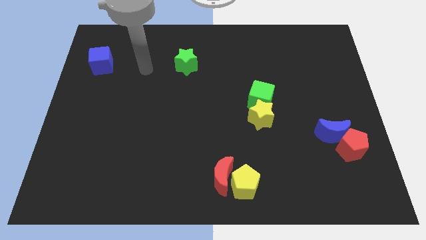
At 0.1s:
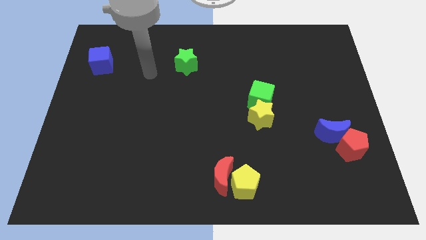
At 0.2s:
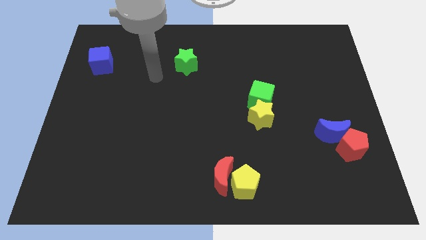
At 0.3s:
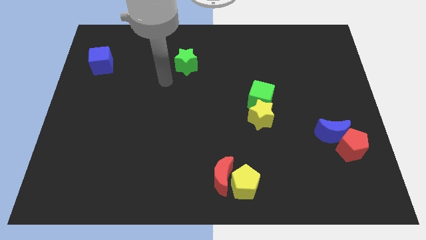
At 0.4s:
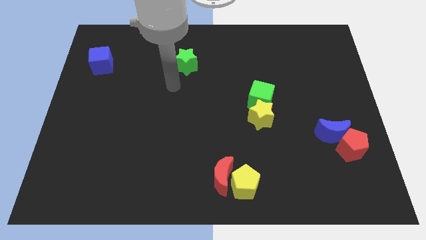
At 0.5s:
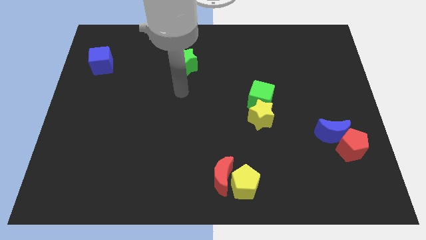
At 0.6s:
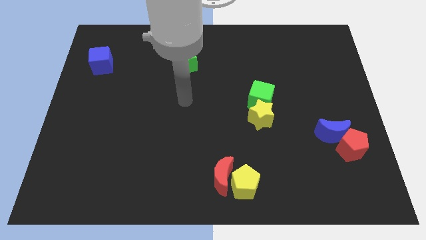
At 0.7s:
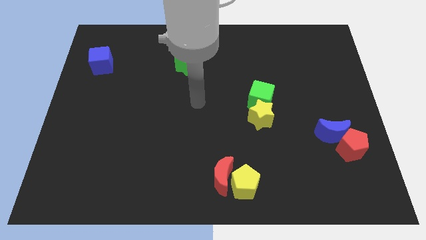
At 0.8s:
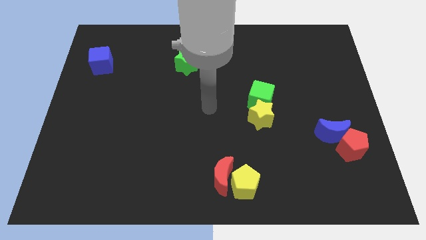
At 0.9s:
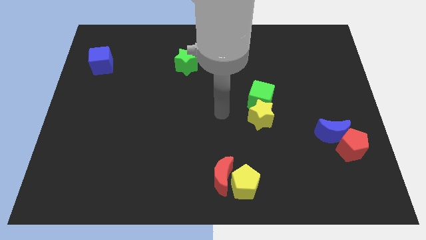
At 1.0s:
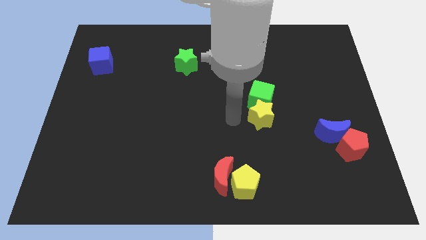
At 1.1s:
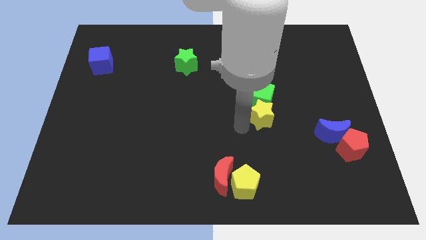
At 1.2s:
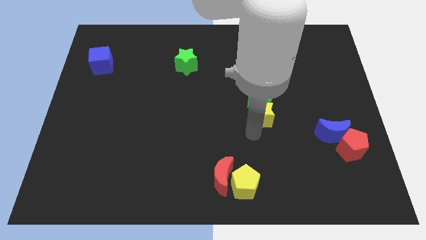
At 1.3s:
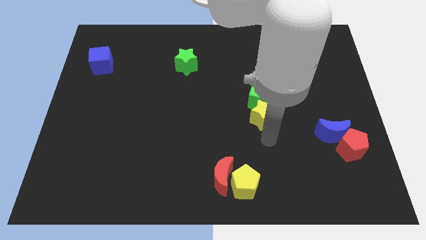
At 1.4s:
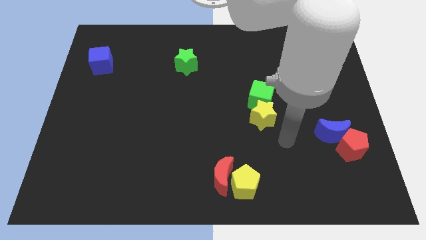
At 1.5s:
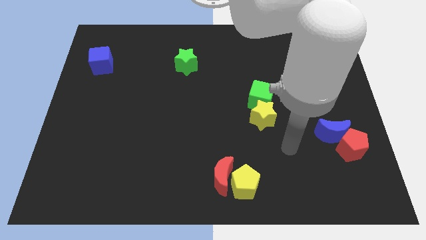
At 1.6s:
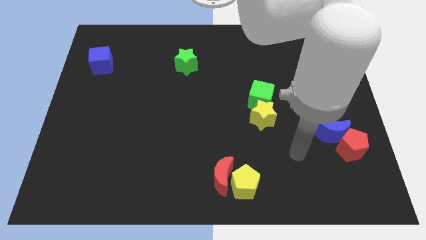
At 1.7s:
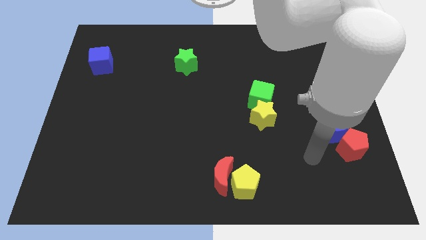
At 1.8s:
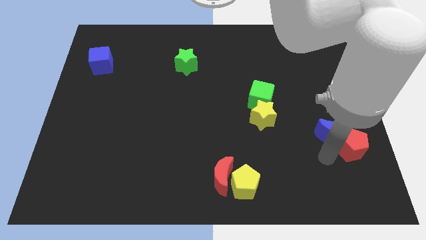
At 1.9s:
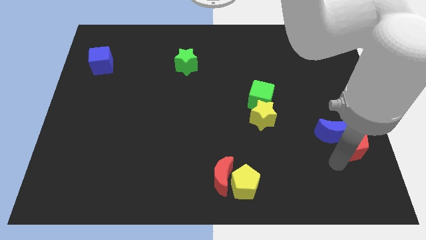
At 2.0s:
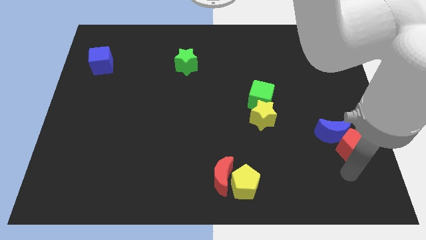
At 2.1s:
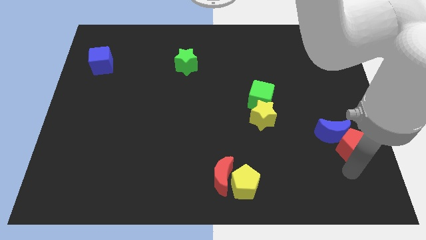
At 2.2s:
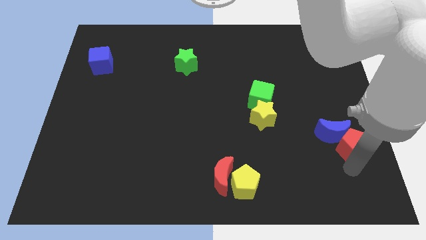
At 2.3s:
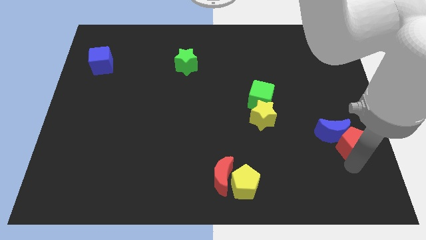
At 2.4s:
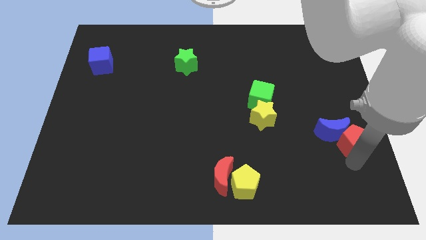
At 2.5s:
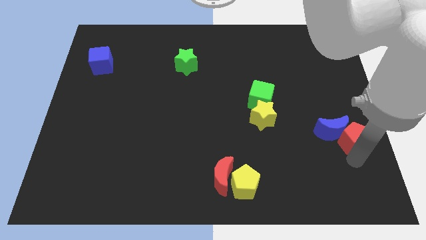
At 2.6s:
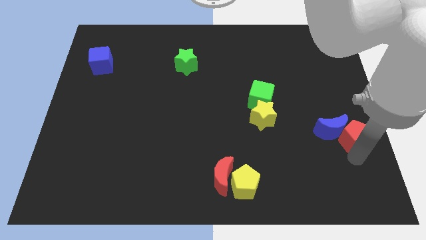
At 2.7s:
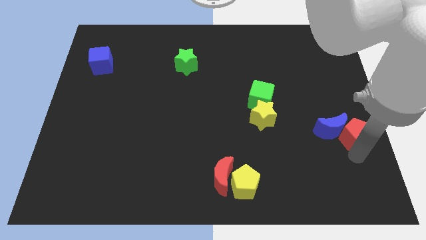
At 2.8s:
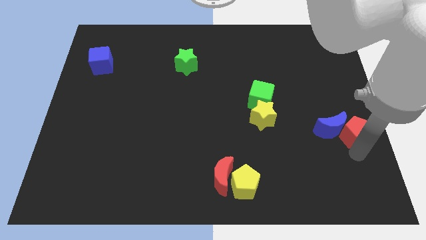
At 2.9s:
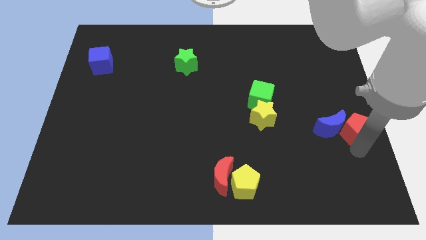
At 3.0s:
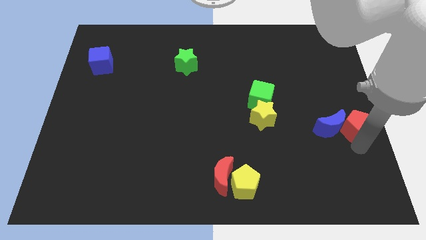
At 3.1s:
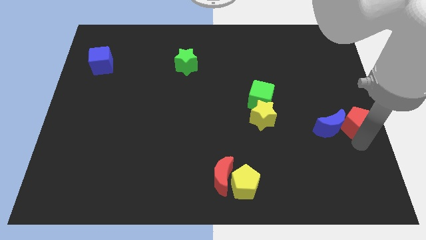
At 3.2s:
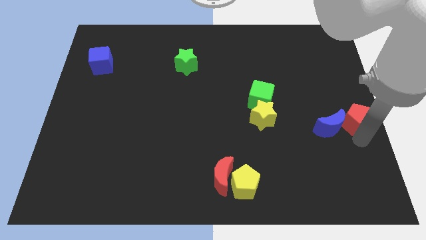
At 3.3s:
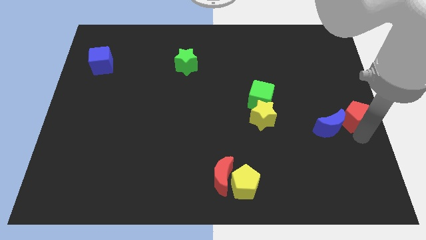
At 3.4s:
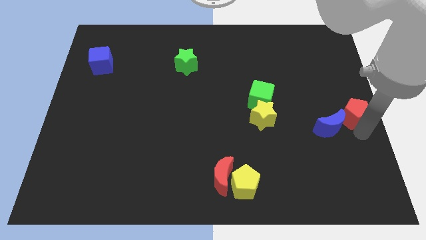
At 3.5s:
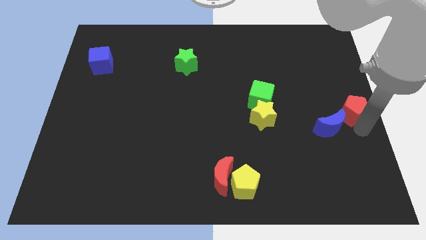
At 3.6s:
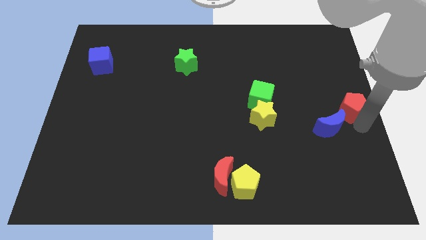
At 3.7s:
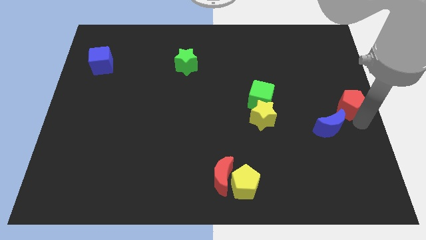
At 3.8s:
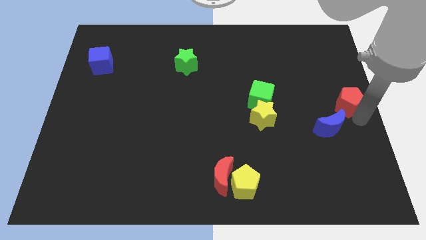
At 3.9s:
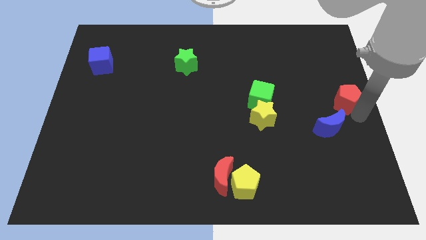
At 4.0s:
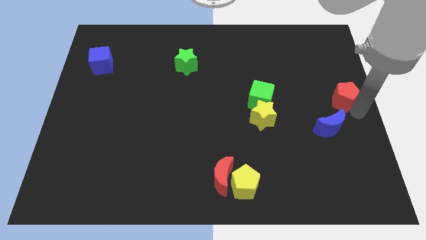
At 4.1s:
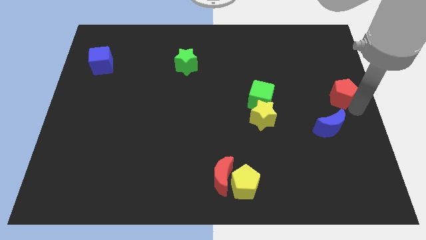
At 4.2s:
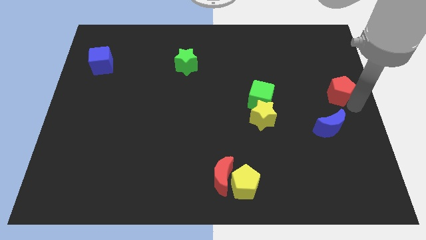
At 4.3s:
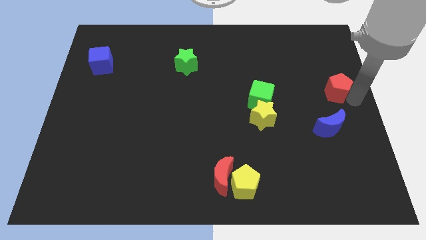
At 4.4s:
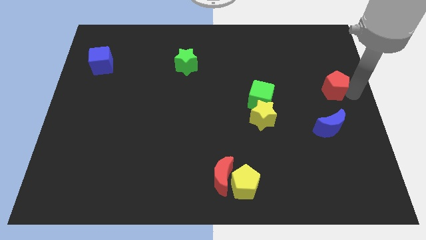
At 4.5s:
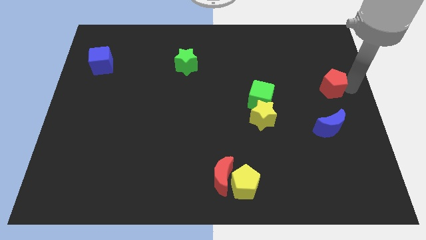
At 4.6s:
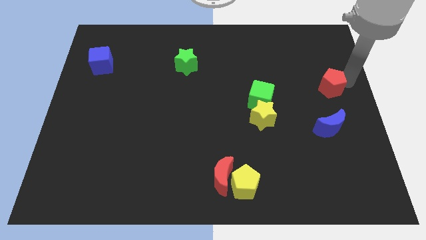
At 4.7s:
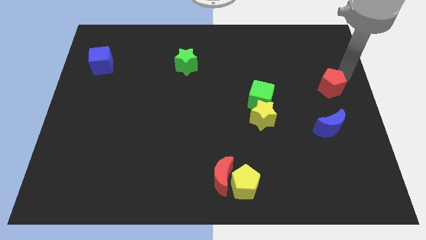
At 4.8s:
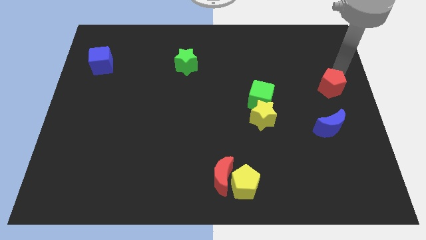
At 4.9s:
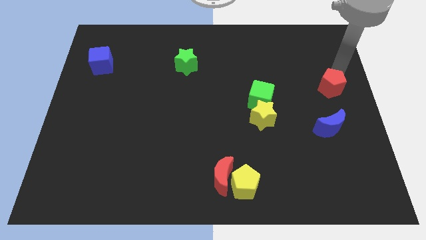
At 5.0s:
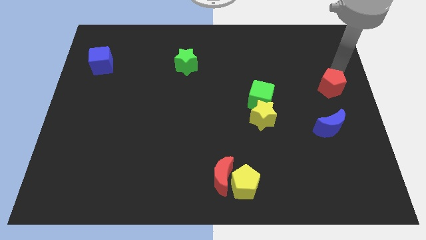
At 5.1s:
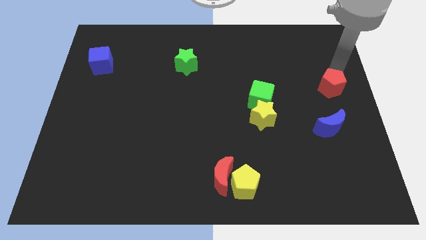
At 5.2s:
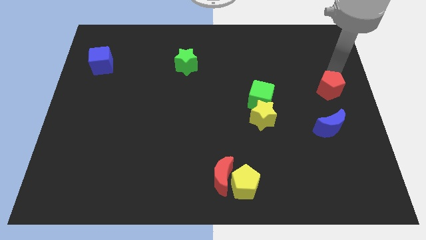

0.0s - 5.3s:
push the red pentagon a little upwards and then to the left

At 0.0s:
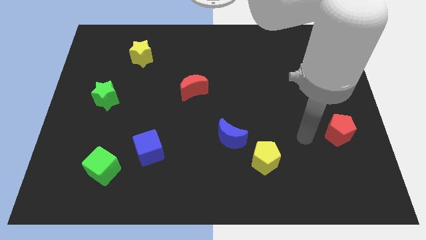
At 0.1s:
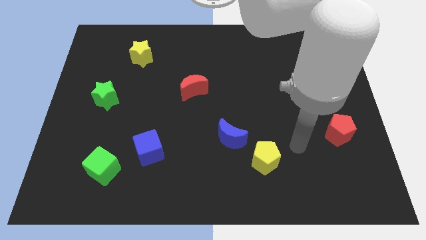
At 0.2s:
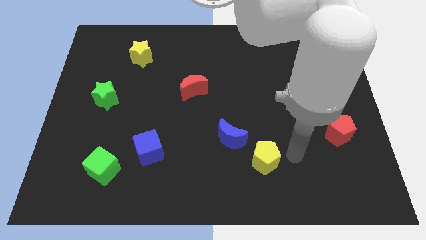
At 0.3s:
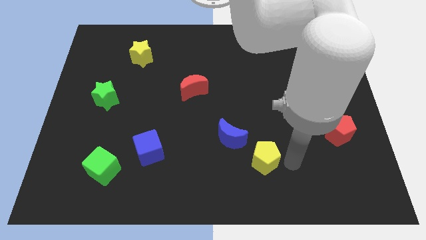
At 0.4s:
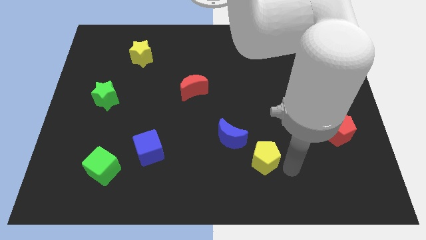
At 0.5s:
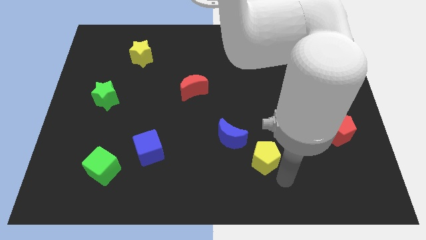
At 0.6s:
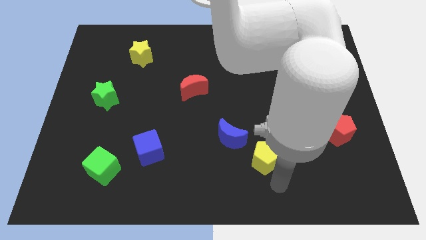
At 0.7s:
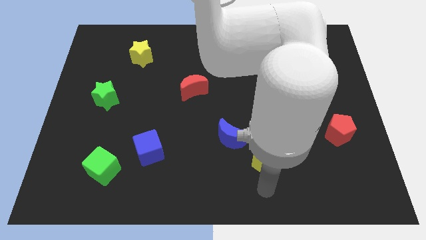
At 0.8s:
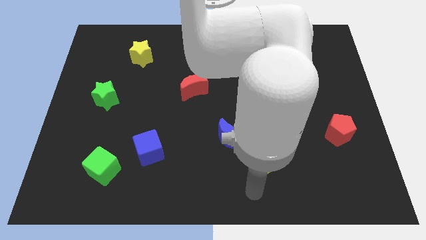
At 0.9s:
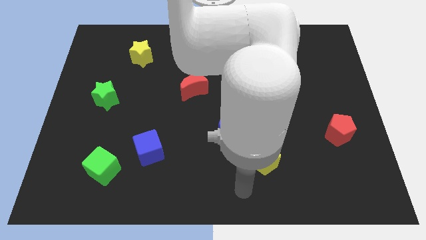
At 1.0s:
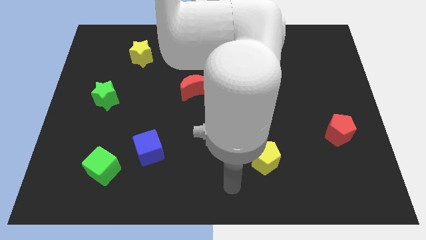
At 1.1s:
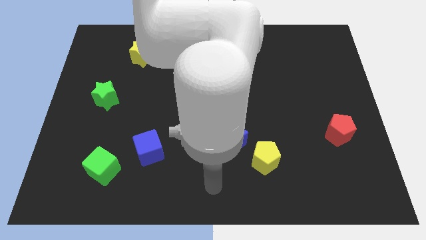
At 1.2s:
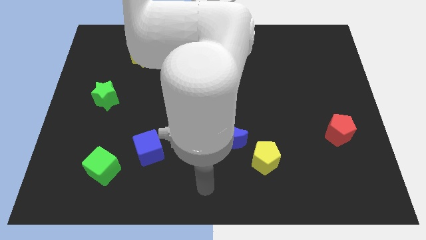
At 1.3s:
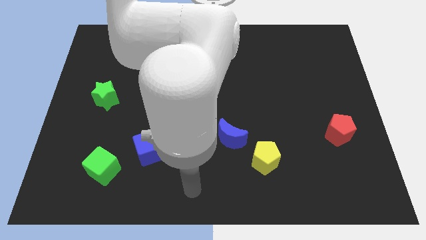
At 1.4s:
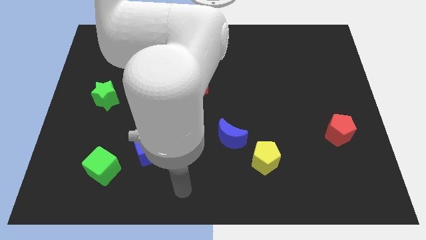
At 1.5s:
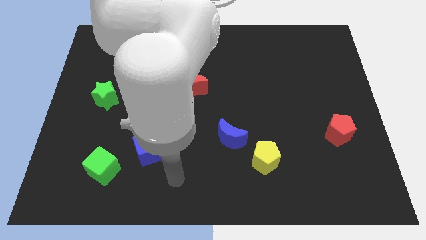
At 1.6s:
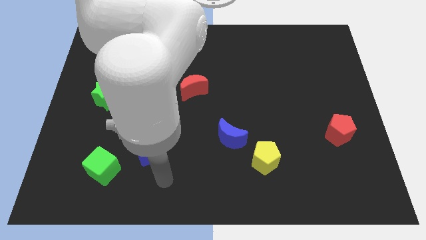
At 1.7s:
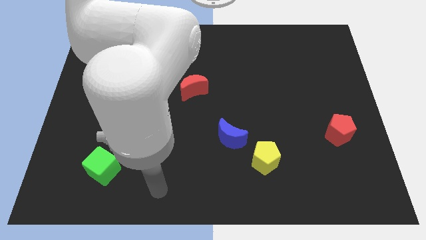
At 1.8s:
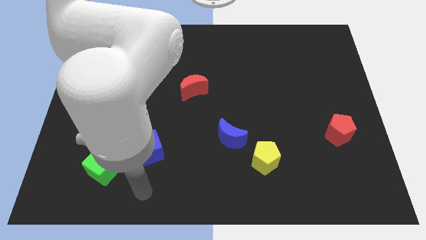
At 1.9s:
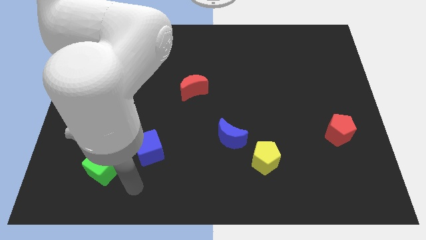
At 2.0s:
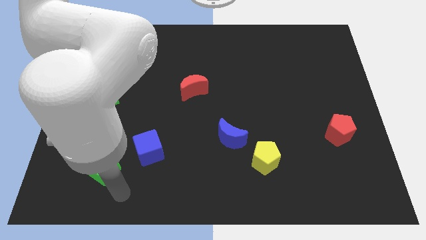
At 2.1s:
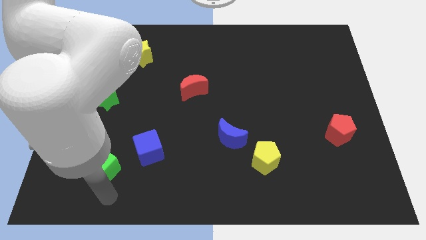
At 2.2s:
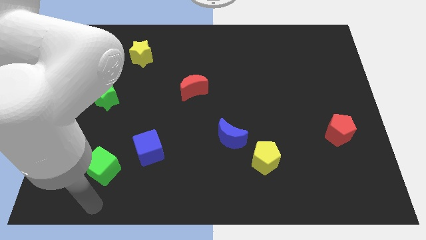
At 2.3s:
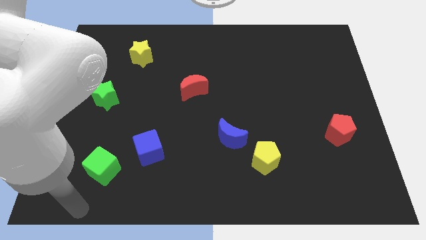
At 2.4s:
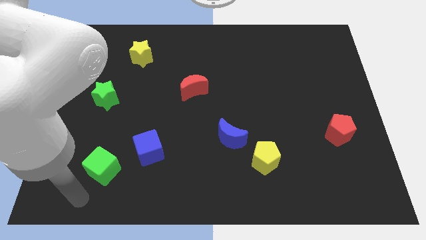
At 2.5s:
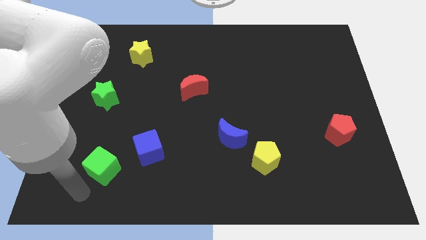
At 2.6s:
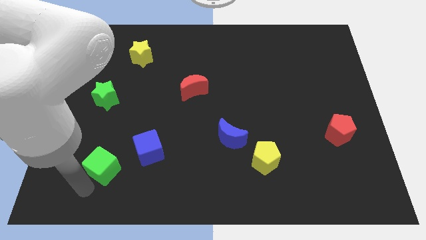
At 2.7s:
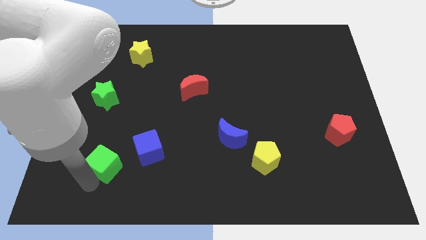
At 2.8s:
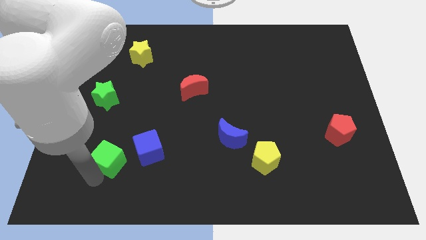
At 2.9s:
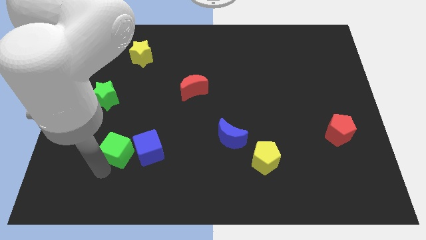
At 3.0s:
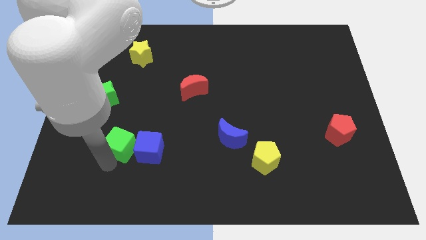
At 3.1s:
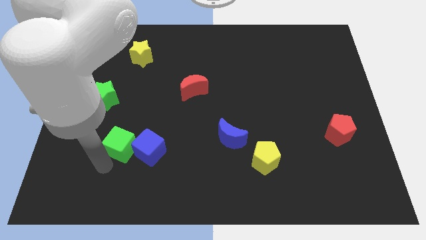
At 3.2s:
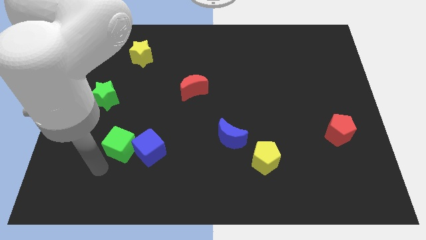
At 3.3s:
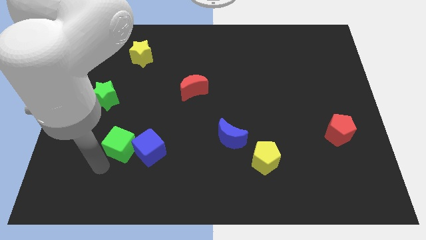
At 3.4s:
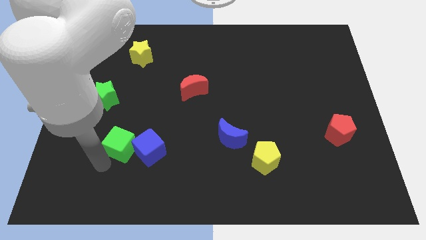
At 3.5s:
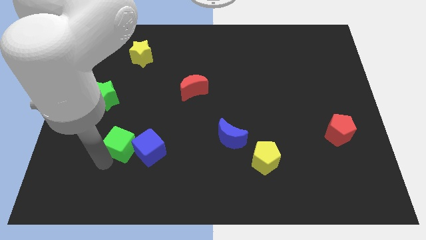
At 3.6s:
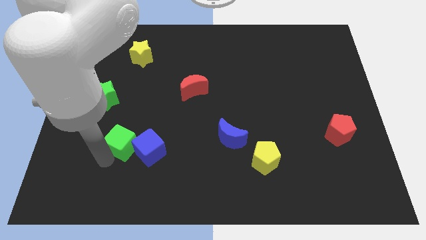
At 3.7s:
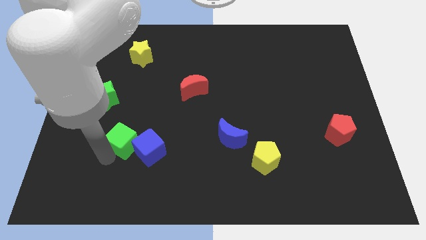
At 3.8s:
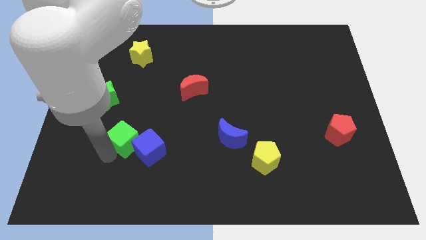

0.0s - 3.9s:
slightly push the green cube diagonally upwards and right
